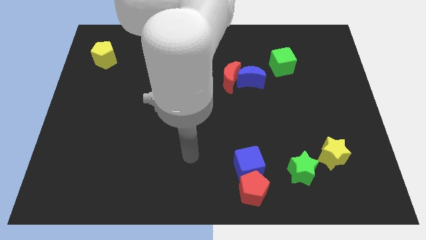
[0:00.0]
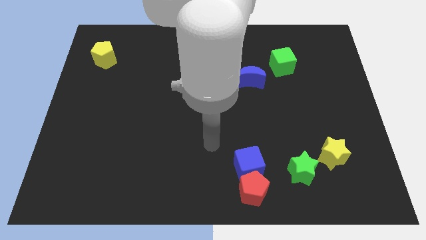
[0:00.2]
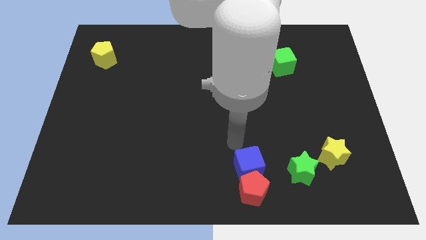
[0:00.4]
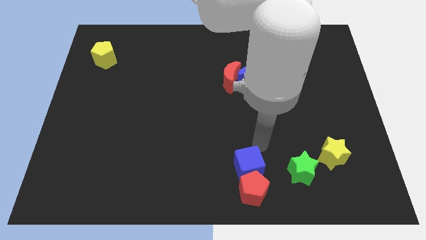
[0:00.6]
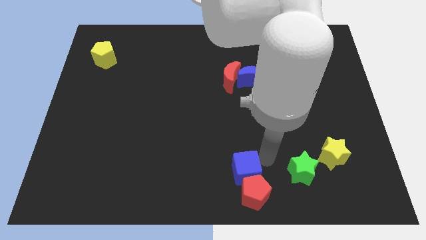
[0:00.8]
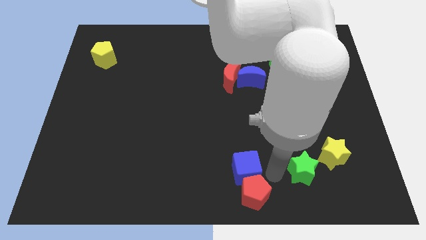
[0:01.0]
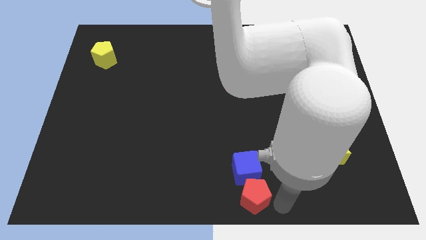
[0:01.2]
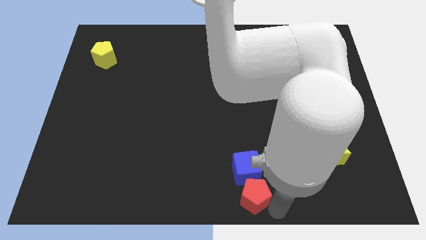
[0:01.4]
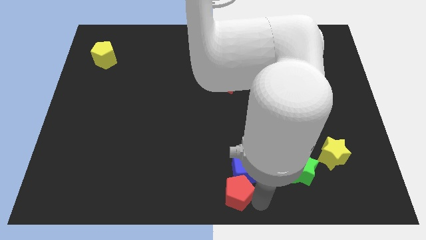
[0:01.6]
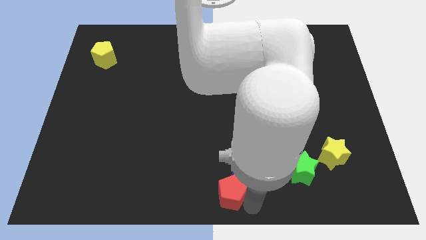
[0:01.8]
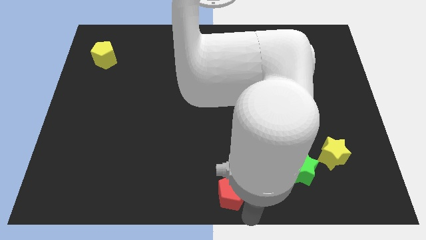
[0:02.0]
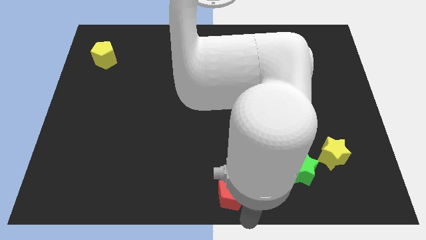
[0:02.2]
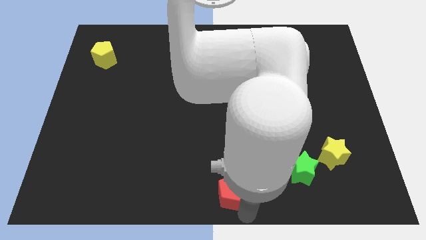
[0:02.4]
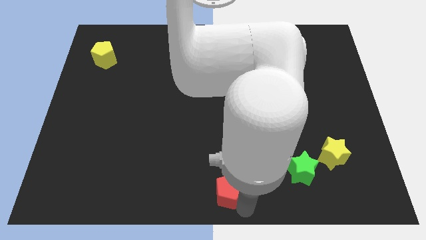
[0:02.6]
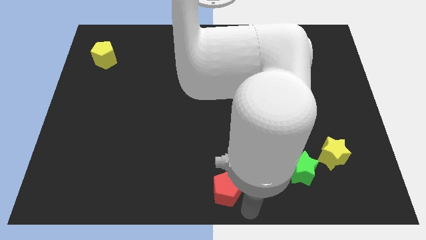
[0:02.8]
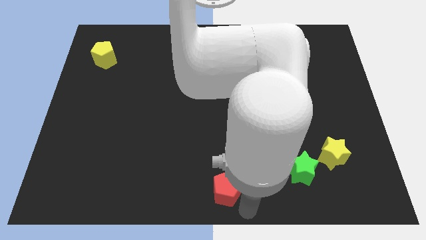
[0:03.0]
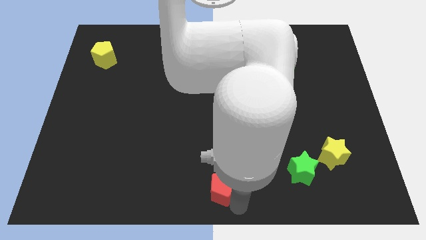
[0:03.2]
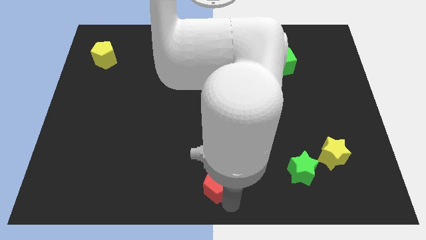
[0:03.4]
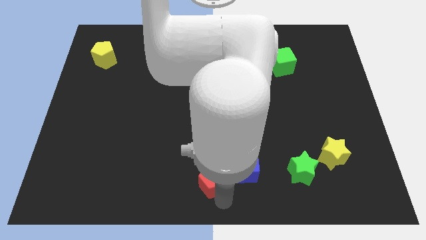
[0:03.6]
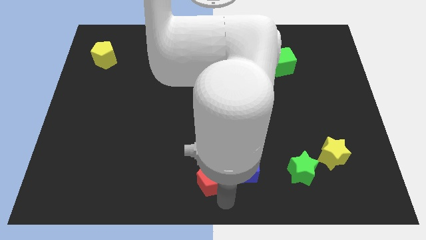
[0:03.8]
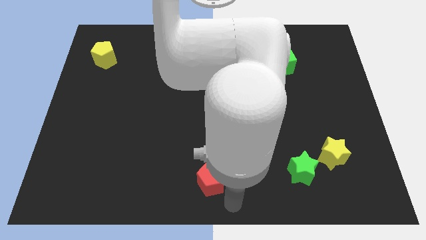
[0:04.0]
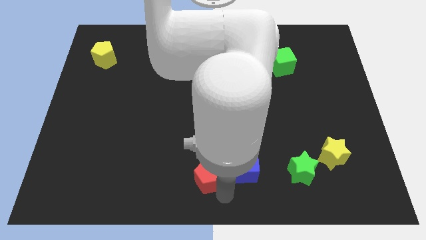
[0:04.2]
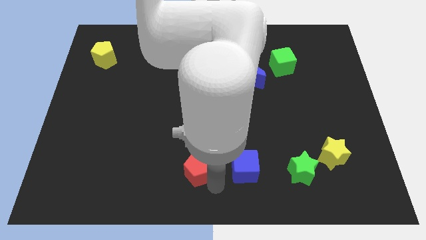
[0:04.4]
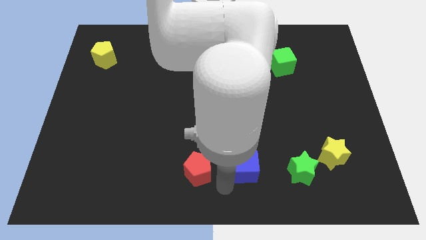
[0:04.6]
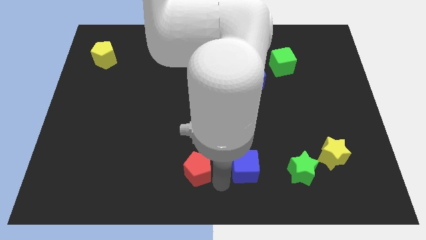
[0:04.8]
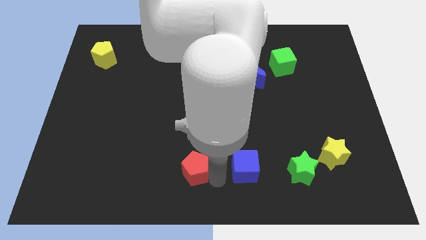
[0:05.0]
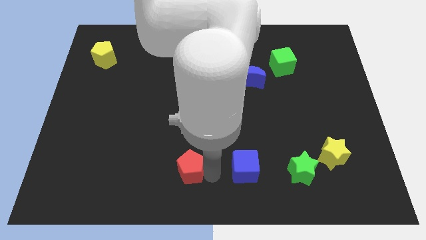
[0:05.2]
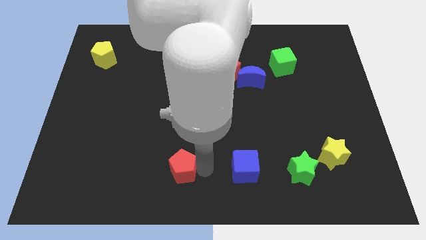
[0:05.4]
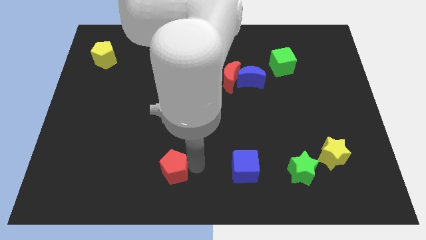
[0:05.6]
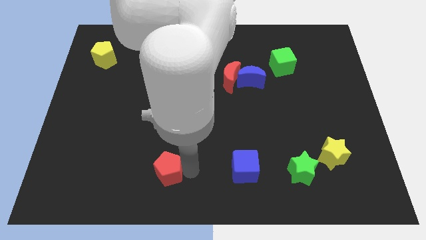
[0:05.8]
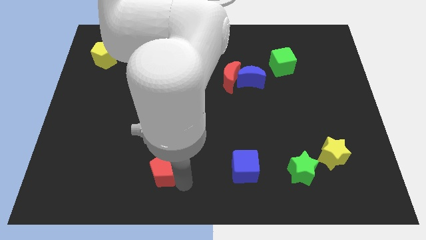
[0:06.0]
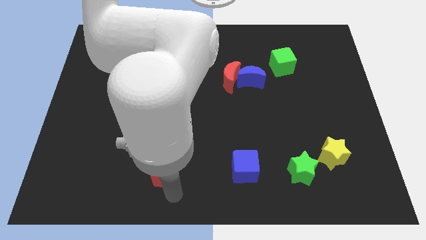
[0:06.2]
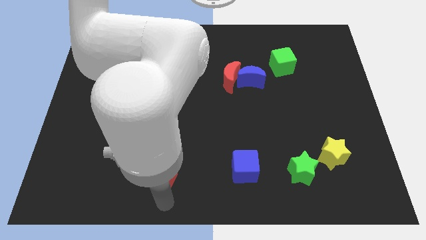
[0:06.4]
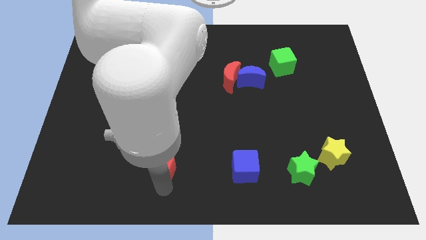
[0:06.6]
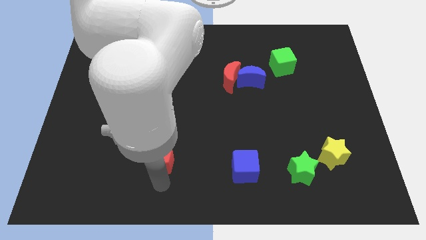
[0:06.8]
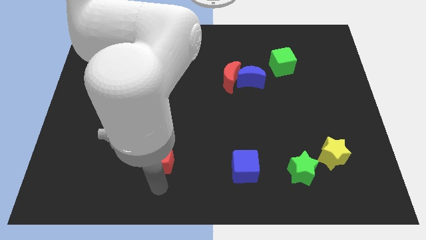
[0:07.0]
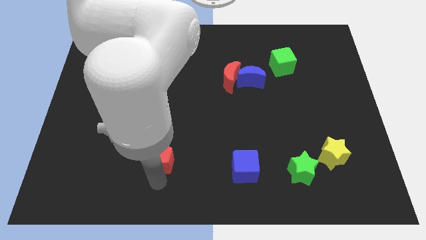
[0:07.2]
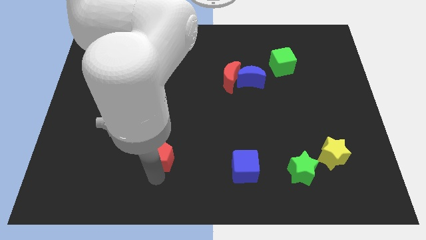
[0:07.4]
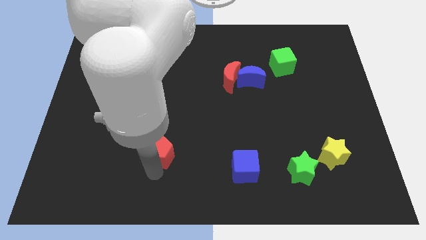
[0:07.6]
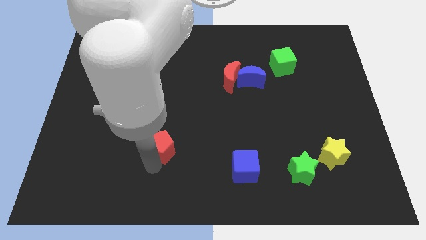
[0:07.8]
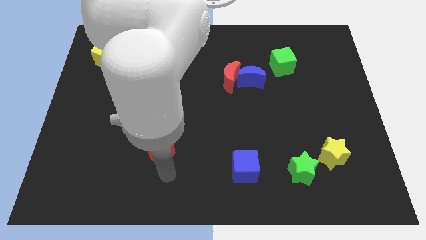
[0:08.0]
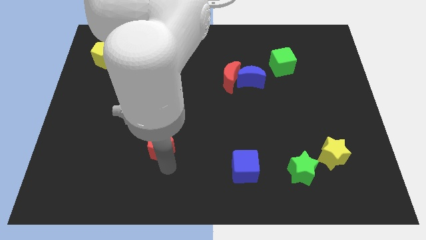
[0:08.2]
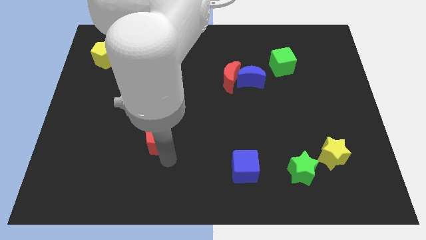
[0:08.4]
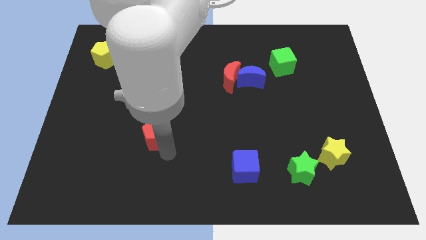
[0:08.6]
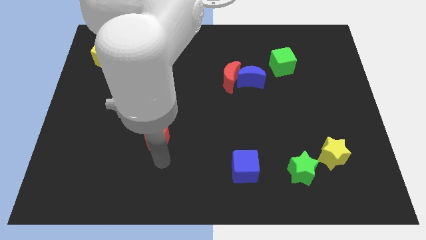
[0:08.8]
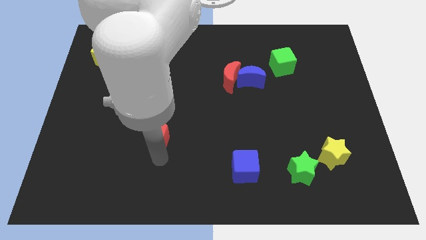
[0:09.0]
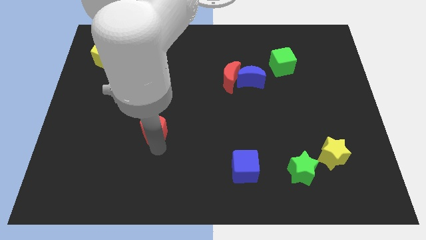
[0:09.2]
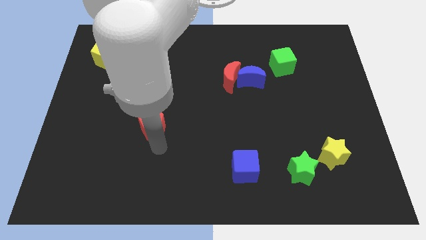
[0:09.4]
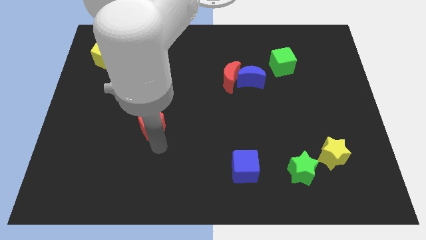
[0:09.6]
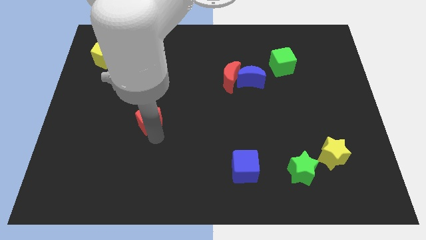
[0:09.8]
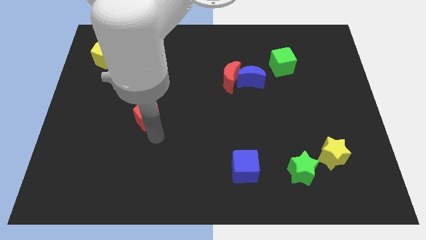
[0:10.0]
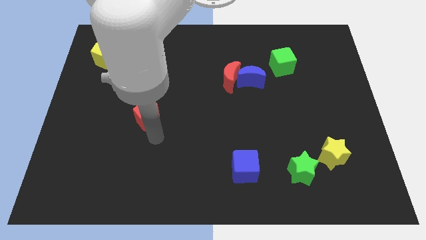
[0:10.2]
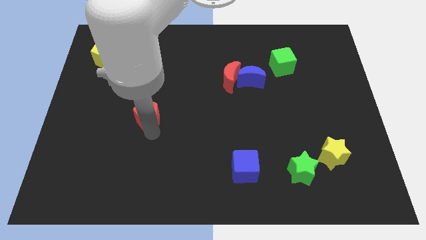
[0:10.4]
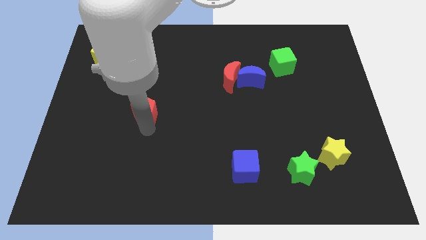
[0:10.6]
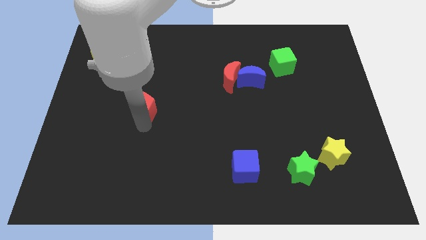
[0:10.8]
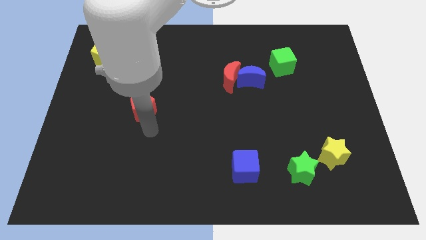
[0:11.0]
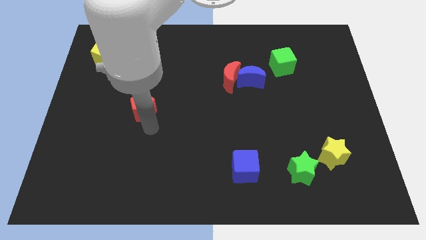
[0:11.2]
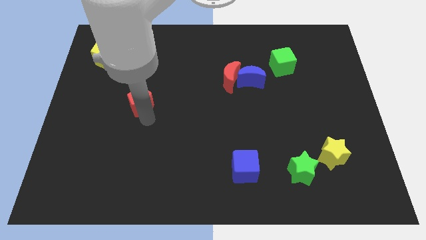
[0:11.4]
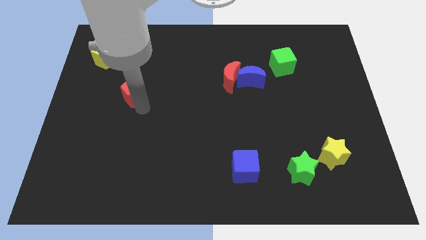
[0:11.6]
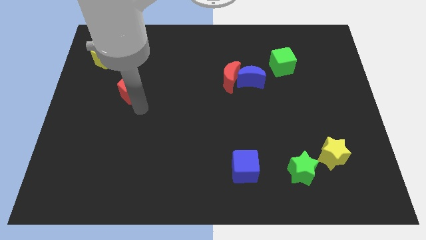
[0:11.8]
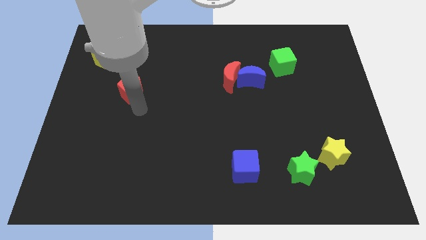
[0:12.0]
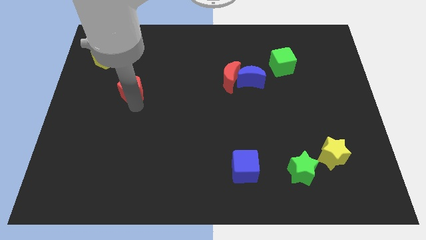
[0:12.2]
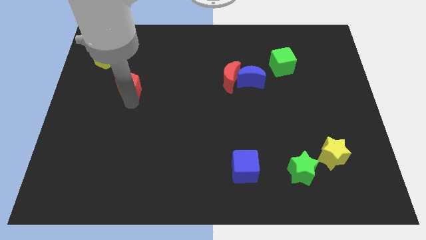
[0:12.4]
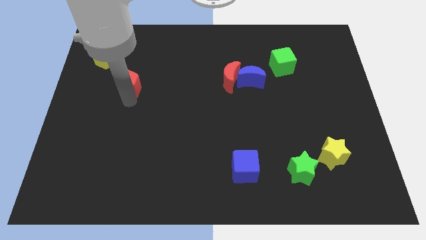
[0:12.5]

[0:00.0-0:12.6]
slide the red pentagon to the bottom right of the yellow pentagon

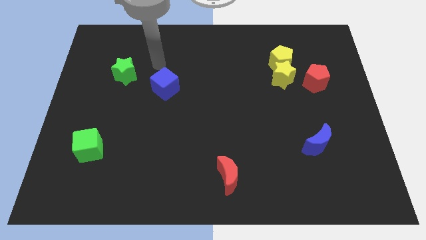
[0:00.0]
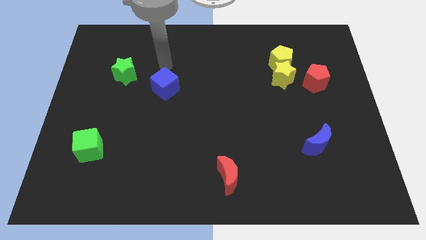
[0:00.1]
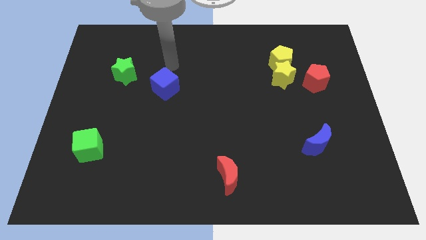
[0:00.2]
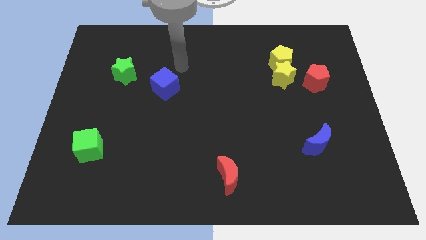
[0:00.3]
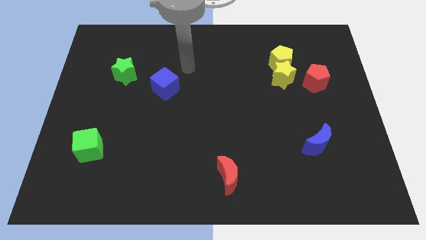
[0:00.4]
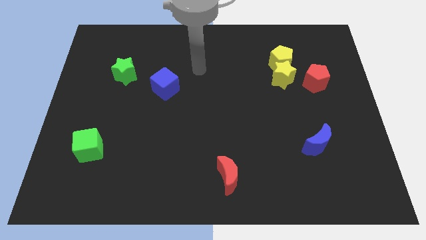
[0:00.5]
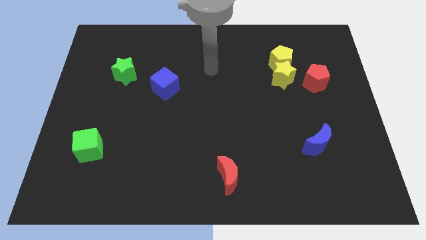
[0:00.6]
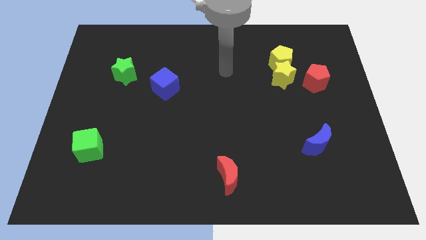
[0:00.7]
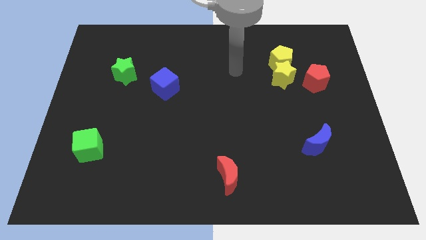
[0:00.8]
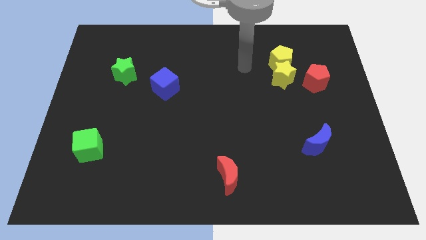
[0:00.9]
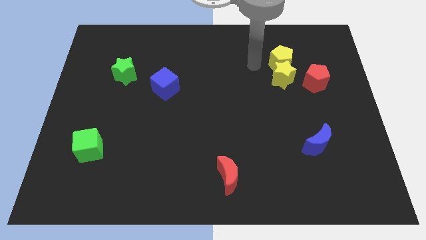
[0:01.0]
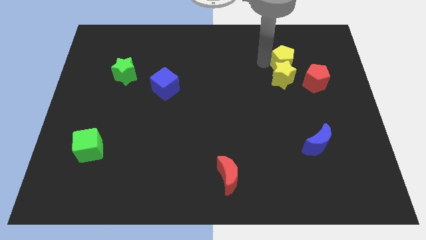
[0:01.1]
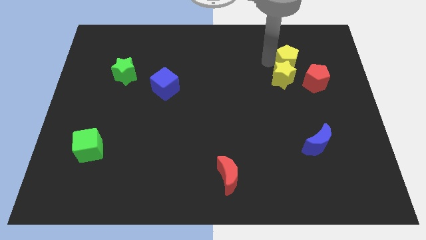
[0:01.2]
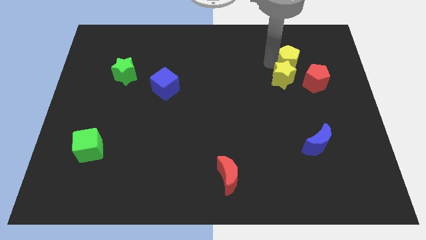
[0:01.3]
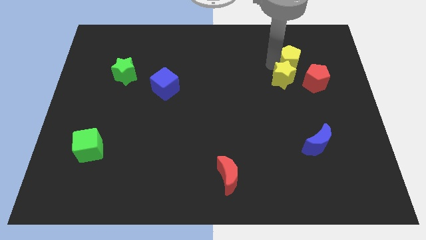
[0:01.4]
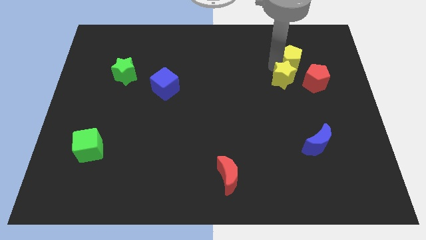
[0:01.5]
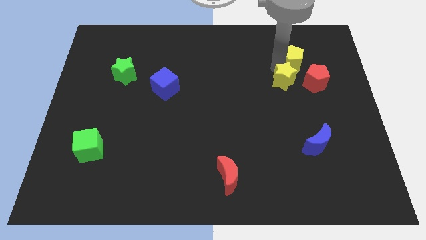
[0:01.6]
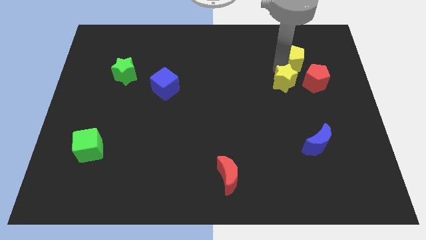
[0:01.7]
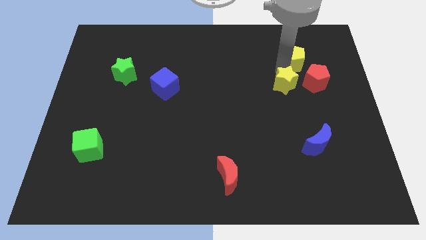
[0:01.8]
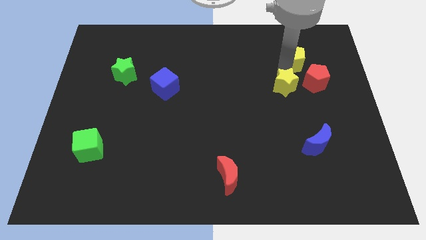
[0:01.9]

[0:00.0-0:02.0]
put the yellow star diagonally down and to the left of the red pentagon
